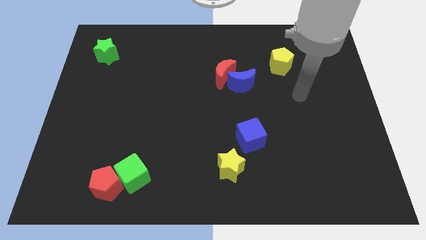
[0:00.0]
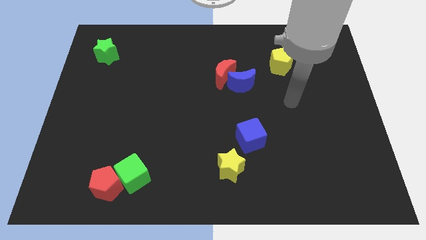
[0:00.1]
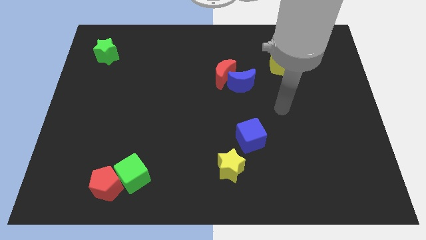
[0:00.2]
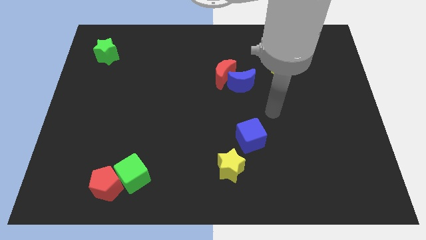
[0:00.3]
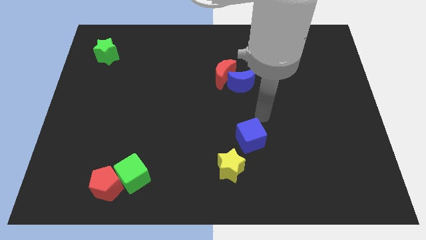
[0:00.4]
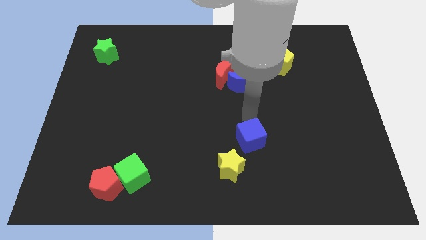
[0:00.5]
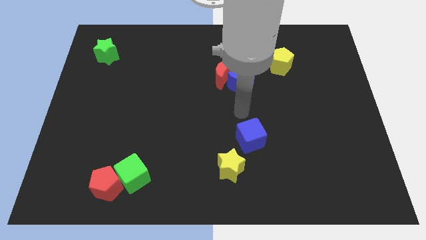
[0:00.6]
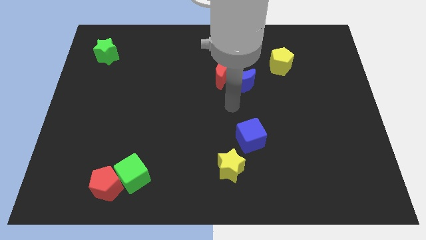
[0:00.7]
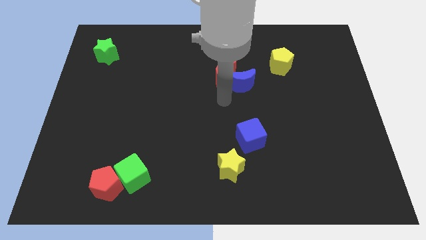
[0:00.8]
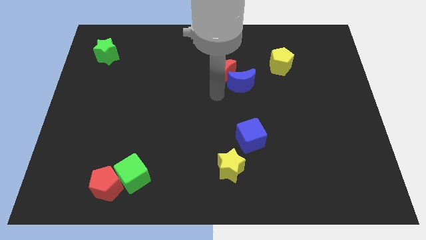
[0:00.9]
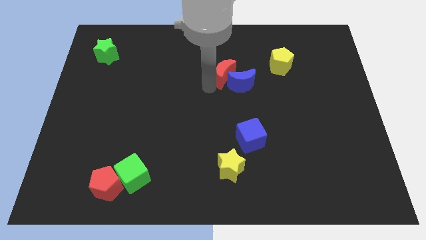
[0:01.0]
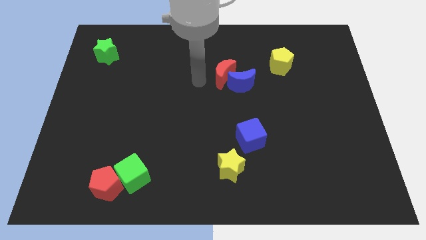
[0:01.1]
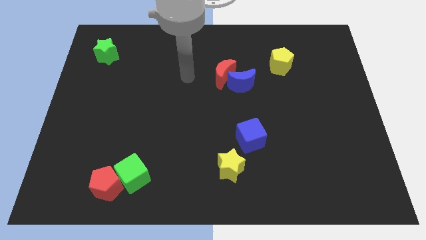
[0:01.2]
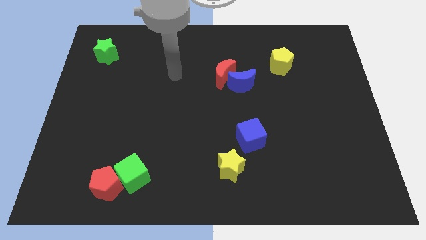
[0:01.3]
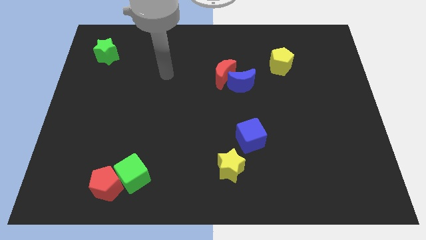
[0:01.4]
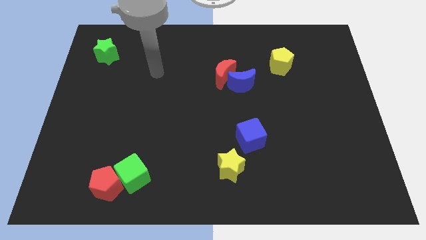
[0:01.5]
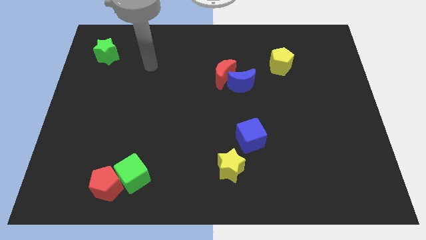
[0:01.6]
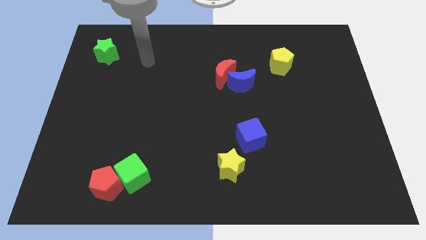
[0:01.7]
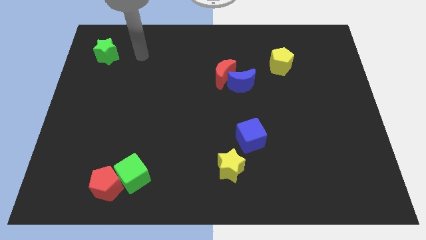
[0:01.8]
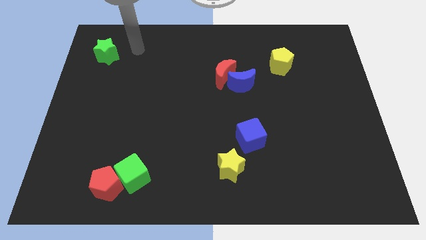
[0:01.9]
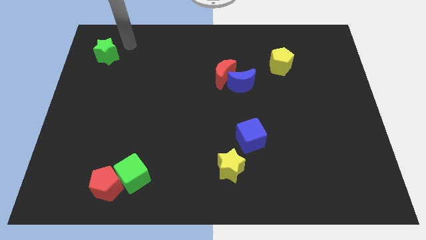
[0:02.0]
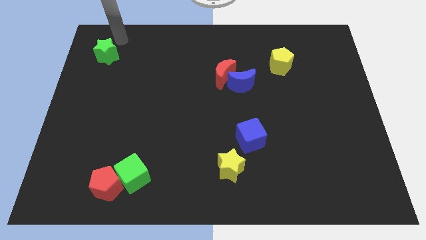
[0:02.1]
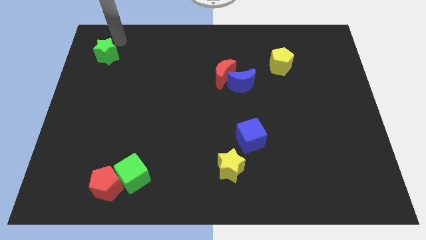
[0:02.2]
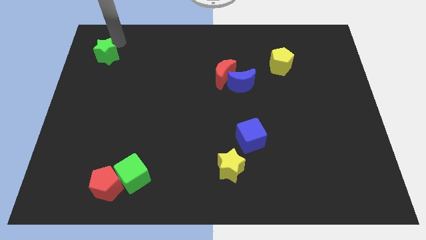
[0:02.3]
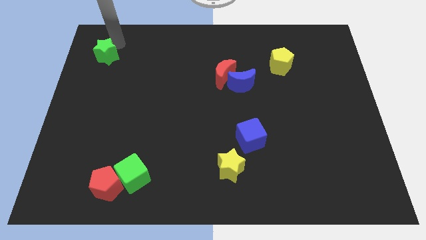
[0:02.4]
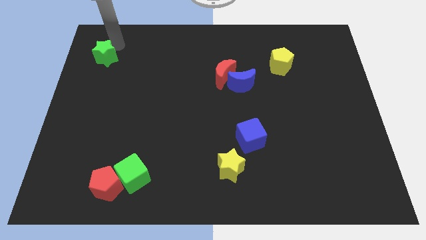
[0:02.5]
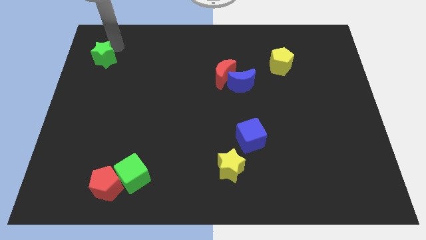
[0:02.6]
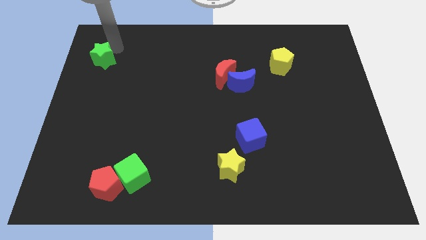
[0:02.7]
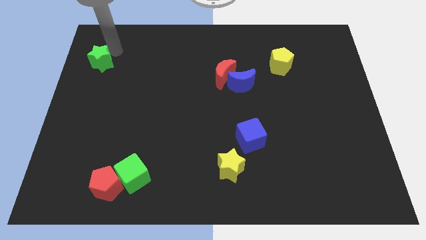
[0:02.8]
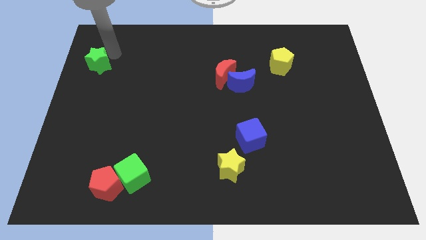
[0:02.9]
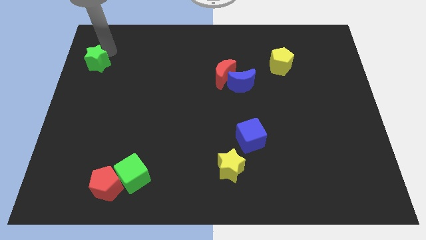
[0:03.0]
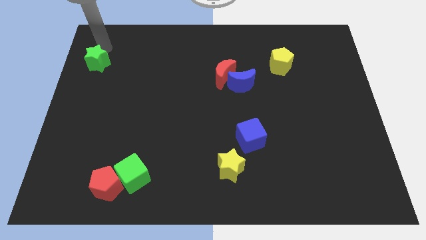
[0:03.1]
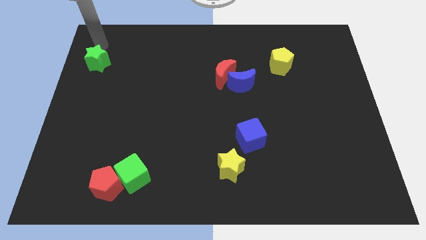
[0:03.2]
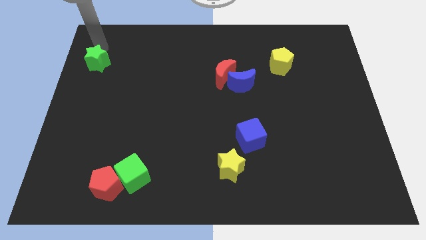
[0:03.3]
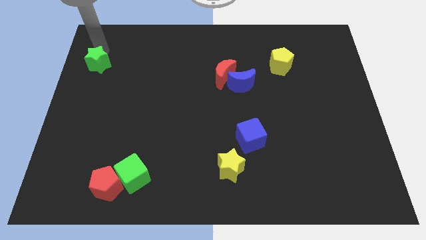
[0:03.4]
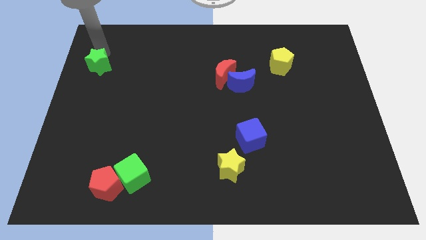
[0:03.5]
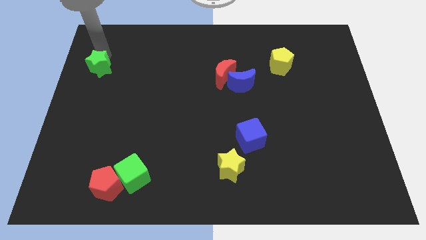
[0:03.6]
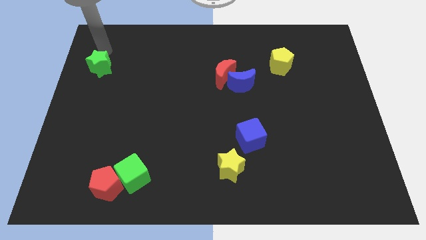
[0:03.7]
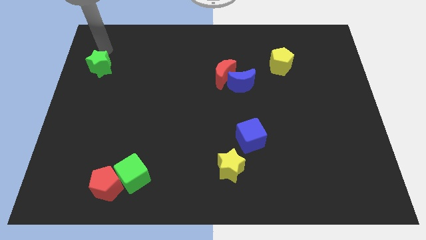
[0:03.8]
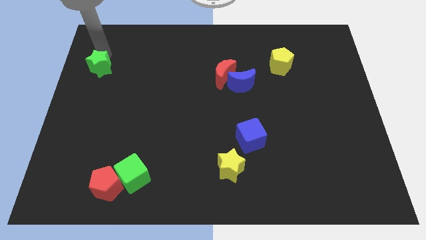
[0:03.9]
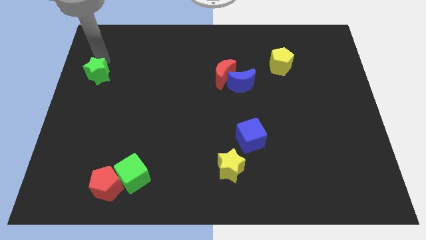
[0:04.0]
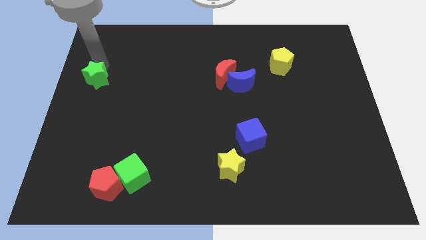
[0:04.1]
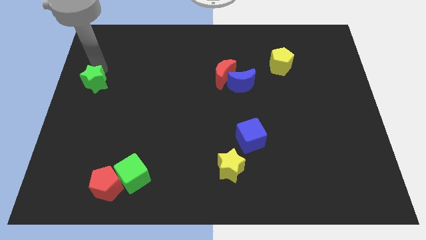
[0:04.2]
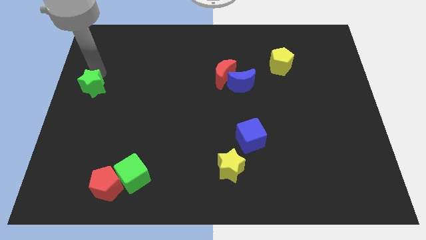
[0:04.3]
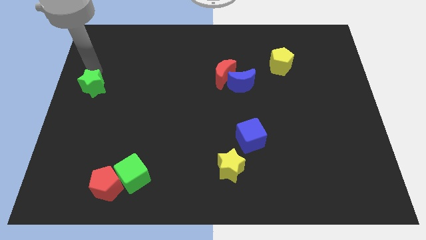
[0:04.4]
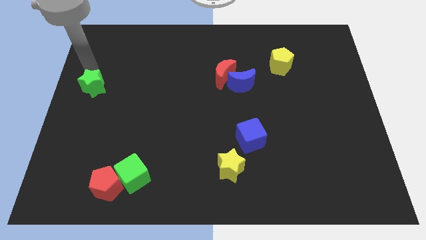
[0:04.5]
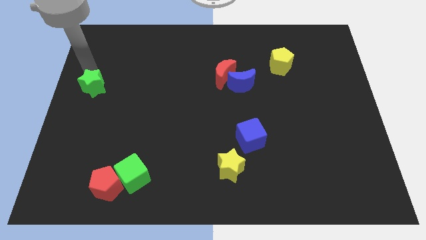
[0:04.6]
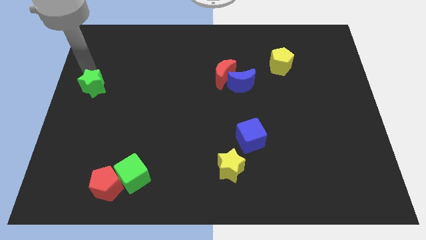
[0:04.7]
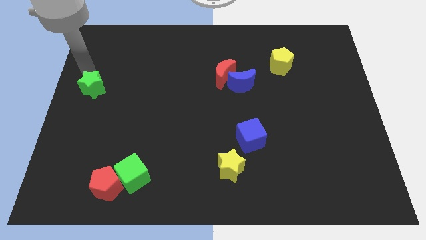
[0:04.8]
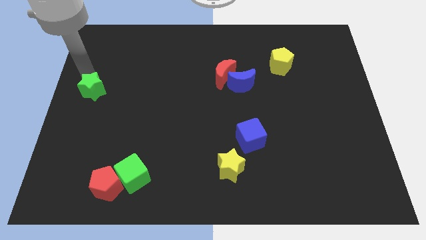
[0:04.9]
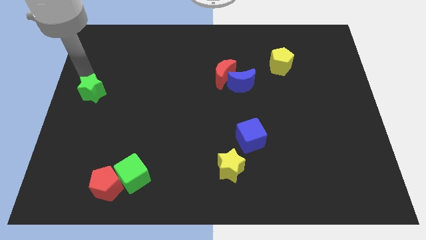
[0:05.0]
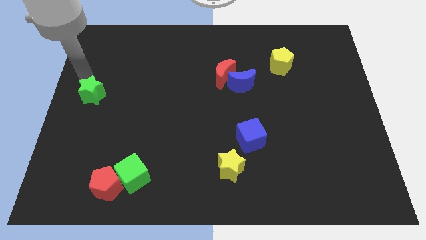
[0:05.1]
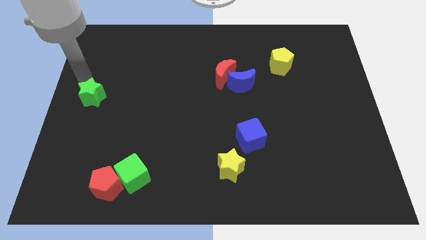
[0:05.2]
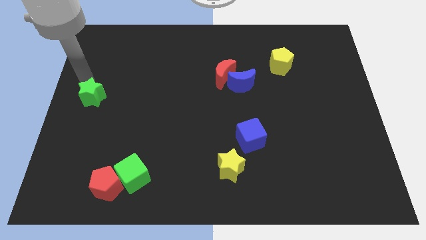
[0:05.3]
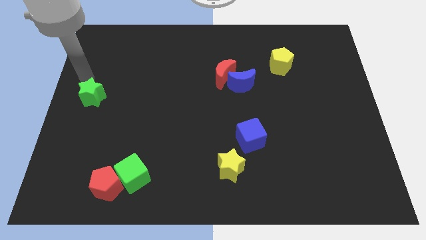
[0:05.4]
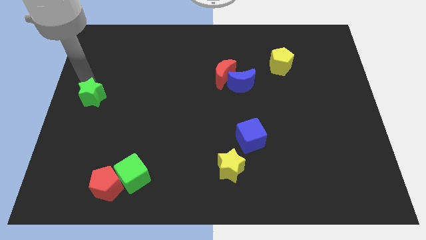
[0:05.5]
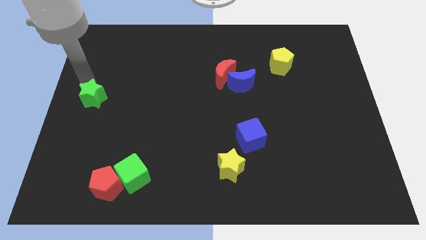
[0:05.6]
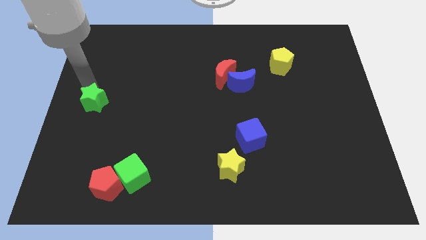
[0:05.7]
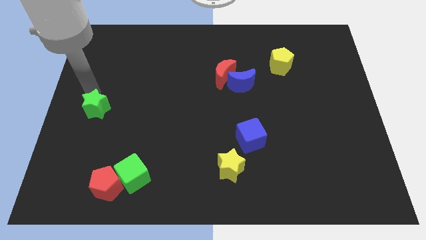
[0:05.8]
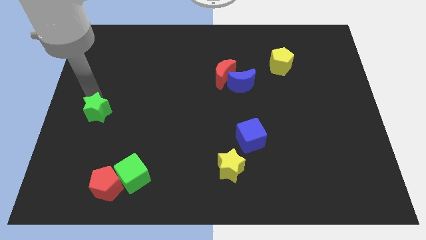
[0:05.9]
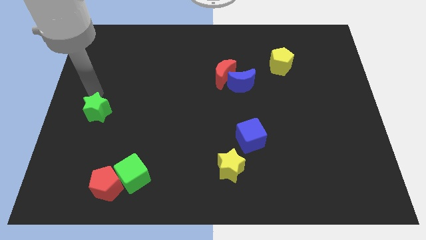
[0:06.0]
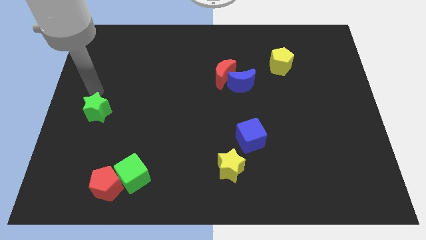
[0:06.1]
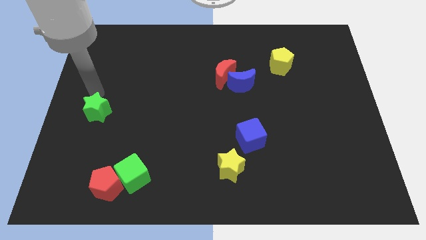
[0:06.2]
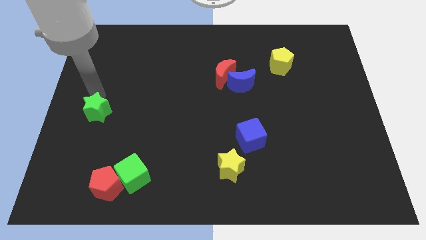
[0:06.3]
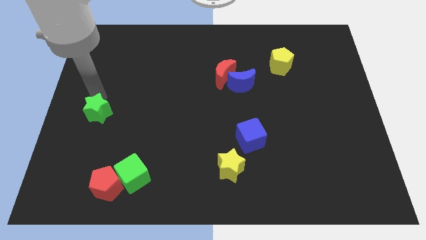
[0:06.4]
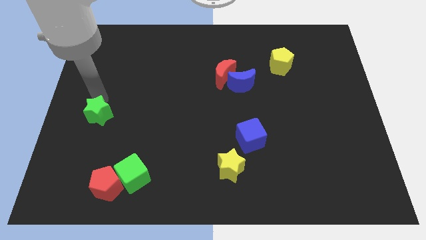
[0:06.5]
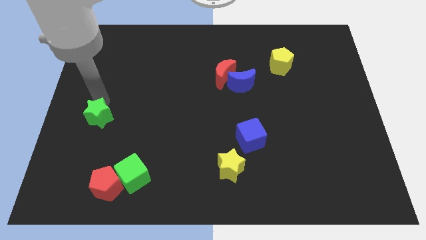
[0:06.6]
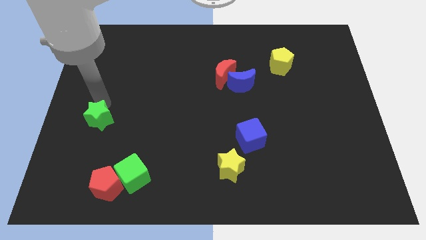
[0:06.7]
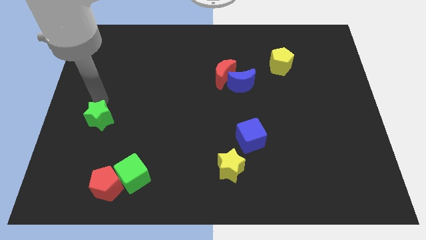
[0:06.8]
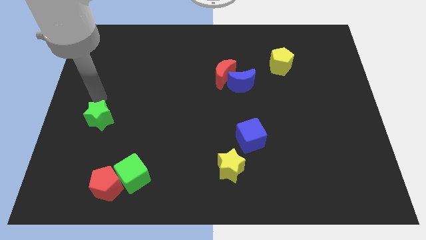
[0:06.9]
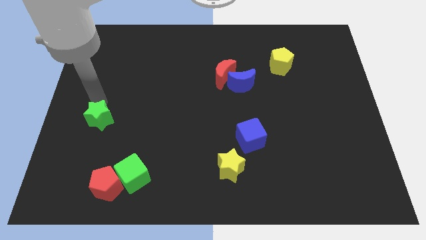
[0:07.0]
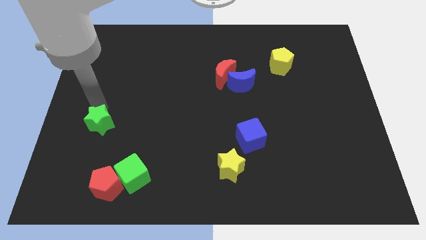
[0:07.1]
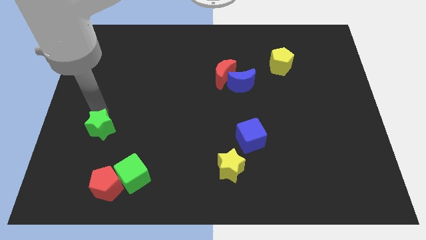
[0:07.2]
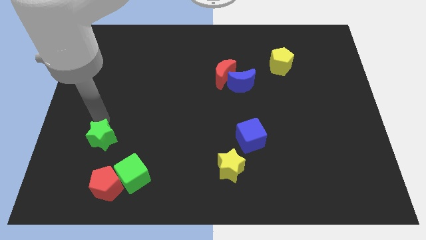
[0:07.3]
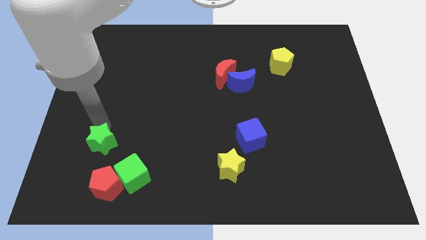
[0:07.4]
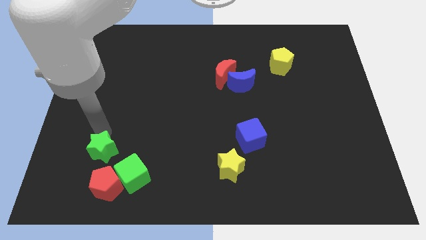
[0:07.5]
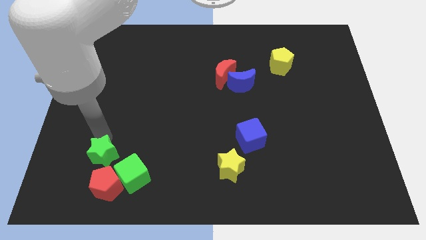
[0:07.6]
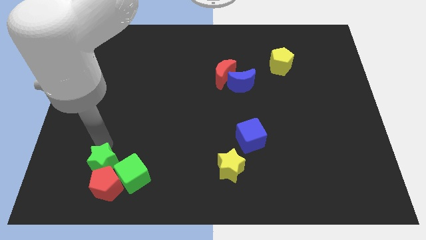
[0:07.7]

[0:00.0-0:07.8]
slide the green star towards the red pentagon

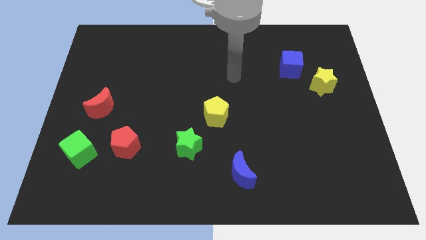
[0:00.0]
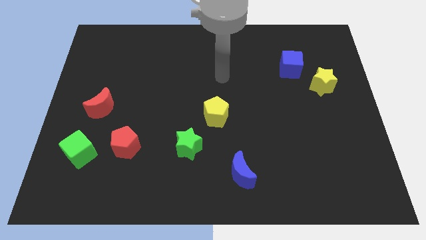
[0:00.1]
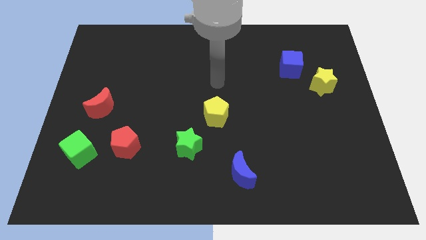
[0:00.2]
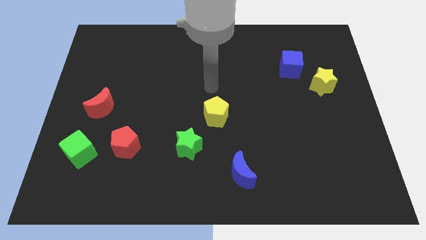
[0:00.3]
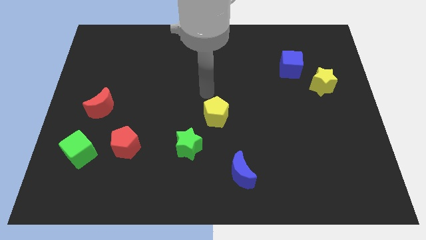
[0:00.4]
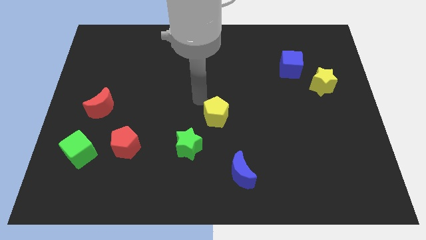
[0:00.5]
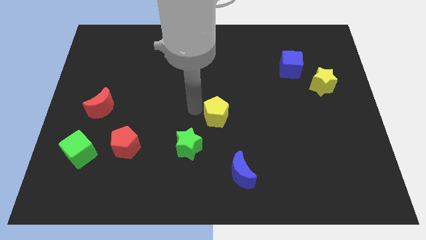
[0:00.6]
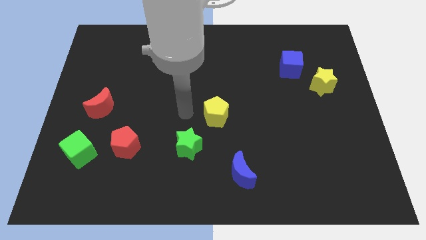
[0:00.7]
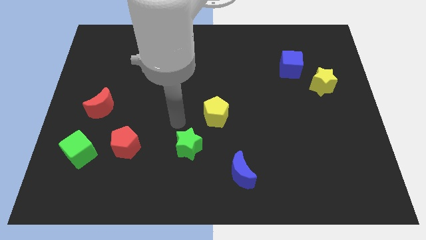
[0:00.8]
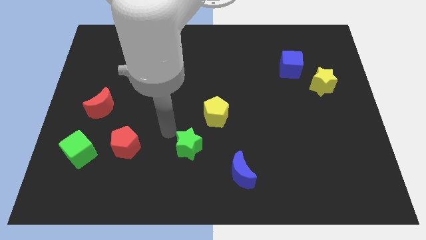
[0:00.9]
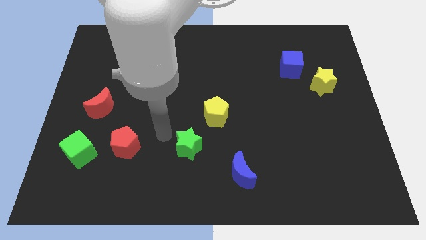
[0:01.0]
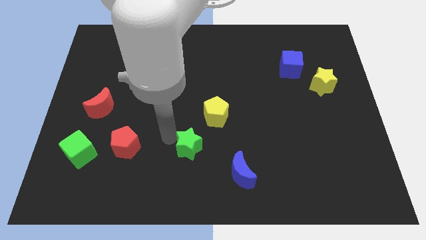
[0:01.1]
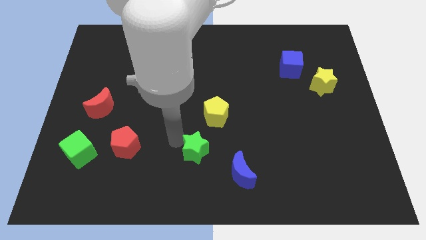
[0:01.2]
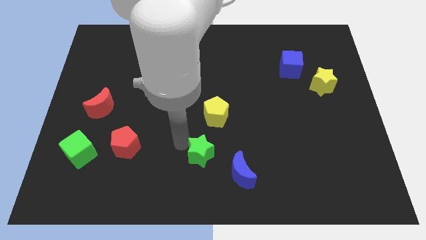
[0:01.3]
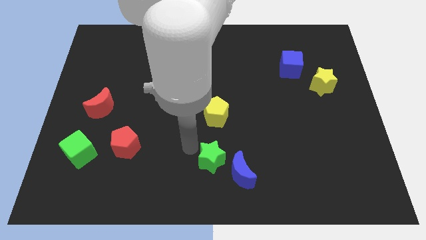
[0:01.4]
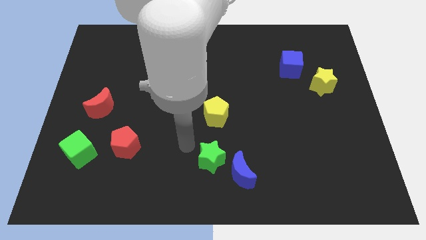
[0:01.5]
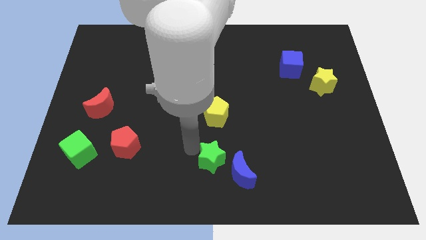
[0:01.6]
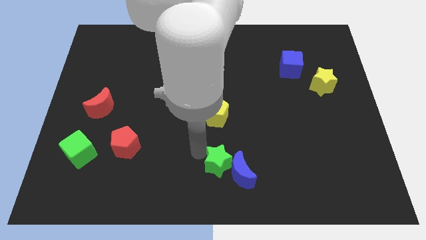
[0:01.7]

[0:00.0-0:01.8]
move the green star next to the blue moon
